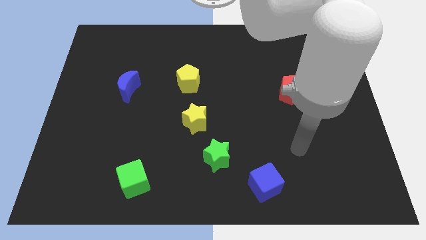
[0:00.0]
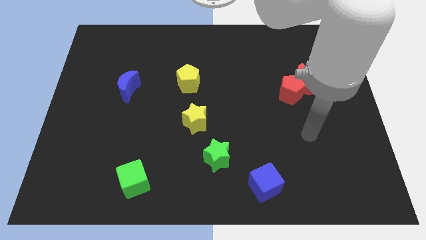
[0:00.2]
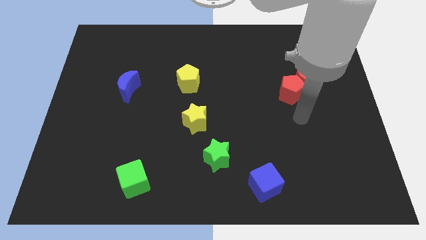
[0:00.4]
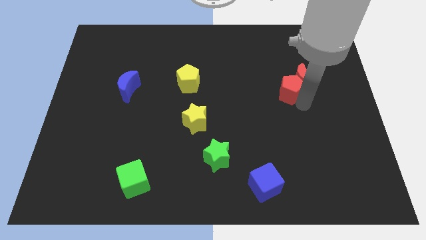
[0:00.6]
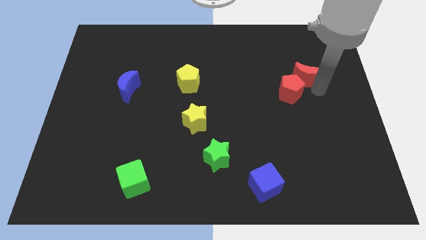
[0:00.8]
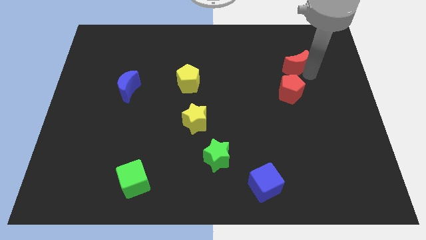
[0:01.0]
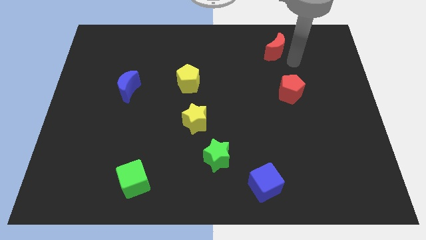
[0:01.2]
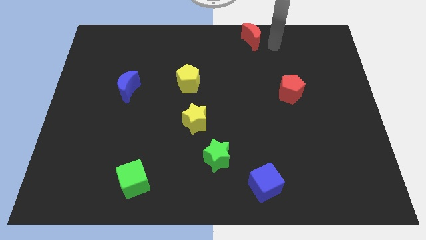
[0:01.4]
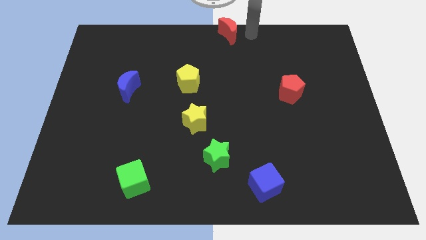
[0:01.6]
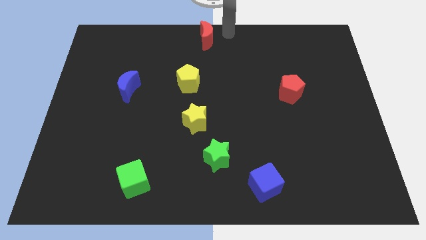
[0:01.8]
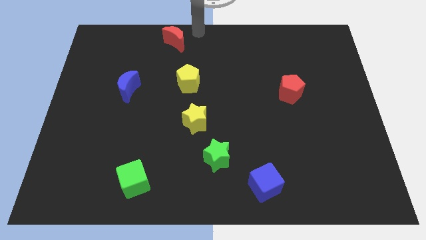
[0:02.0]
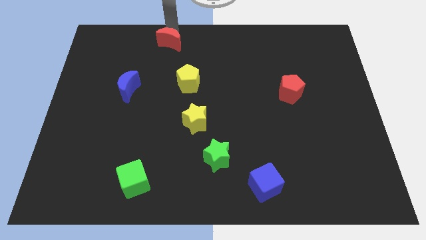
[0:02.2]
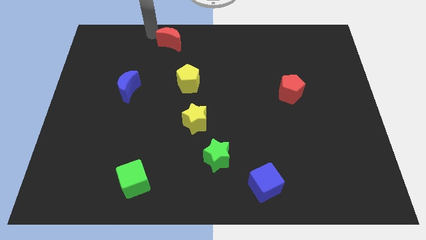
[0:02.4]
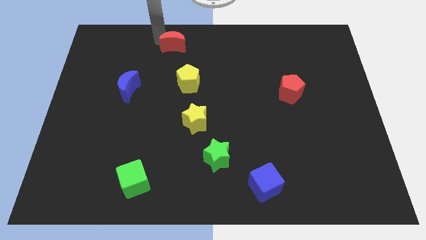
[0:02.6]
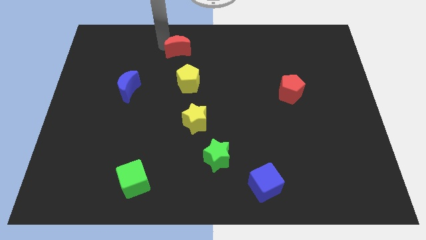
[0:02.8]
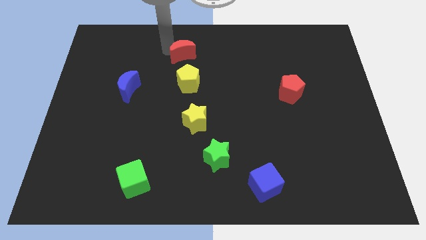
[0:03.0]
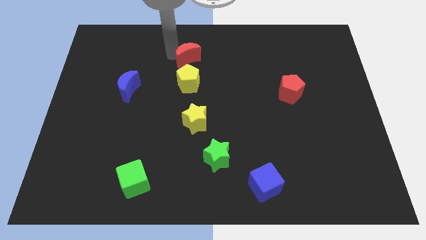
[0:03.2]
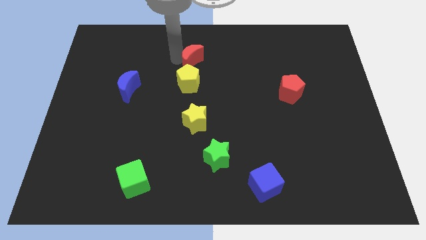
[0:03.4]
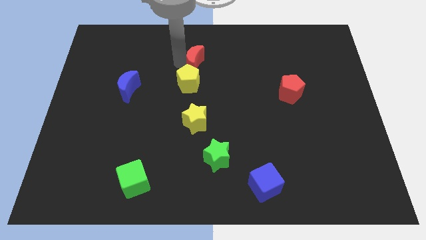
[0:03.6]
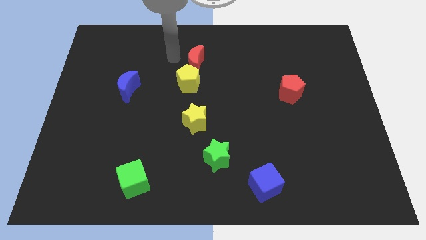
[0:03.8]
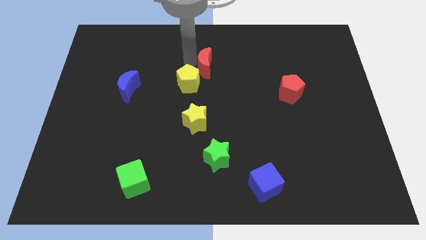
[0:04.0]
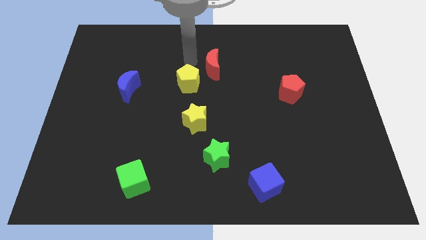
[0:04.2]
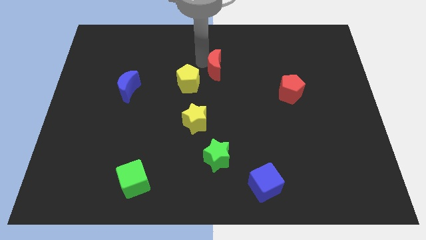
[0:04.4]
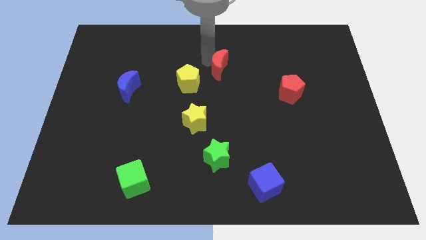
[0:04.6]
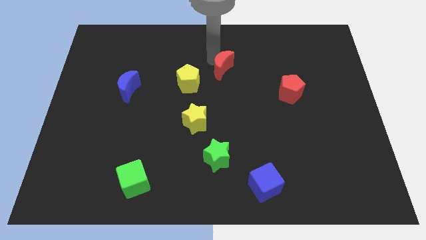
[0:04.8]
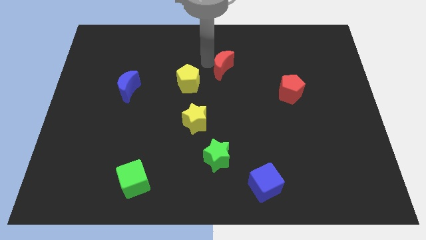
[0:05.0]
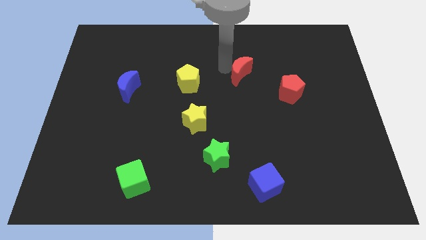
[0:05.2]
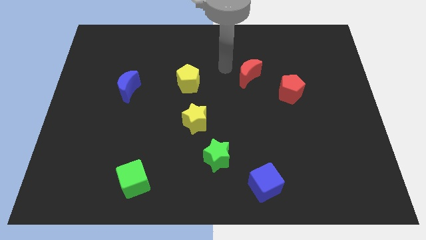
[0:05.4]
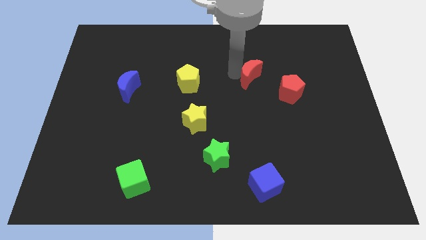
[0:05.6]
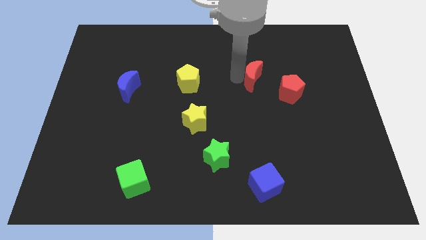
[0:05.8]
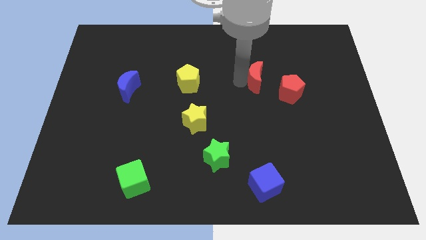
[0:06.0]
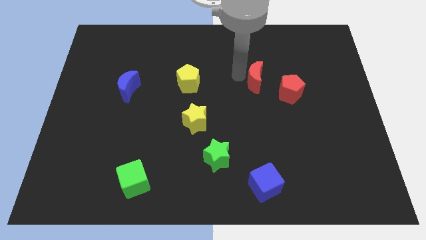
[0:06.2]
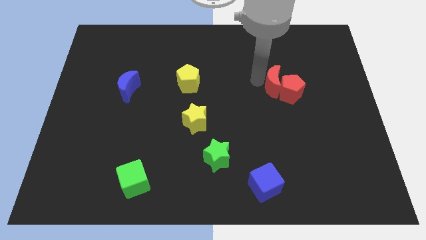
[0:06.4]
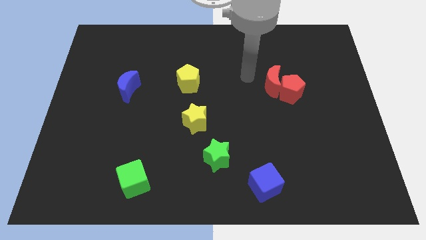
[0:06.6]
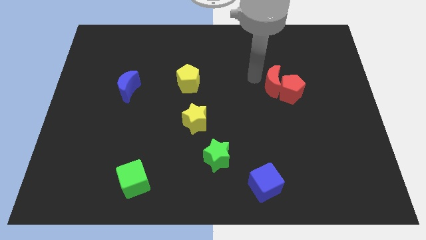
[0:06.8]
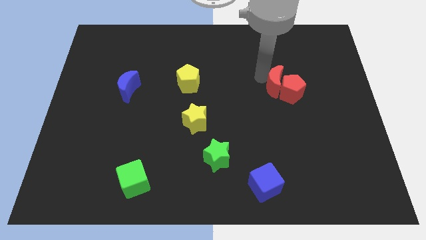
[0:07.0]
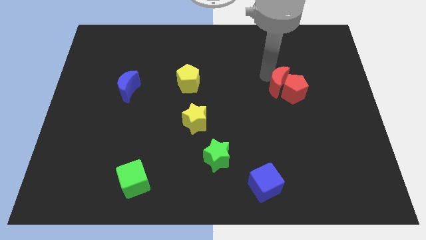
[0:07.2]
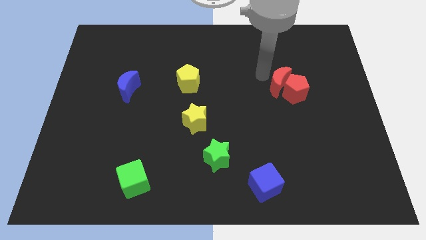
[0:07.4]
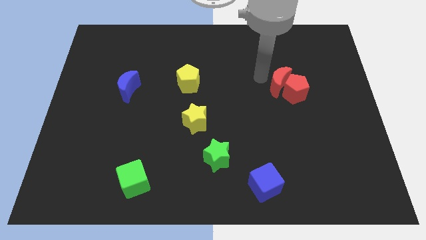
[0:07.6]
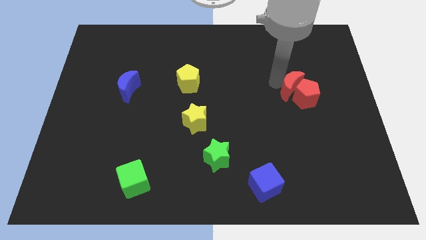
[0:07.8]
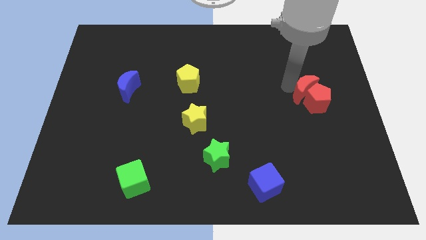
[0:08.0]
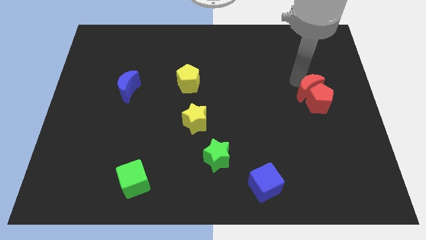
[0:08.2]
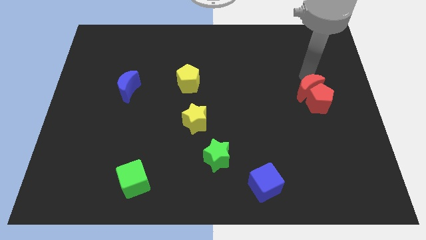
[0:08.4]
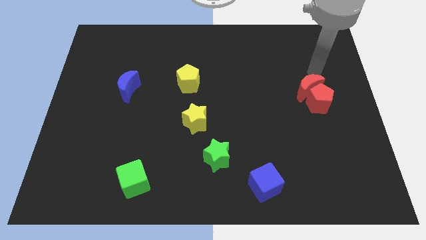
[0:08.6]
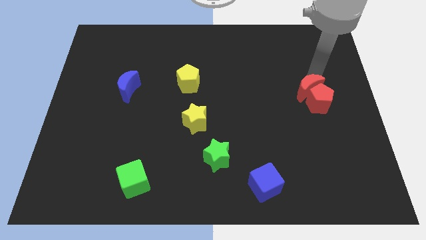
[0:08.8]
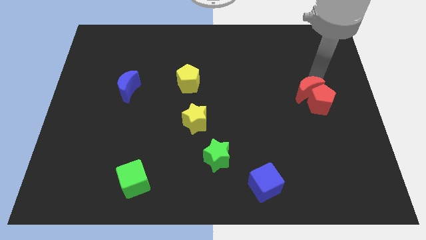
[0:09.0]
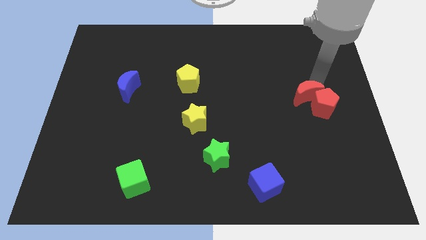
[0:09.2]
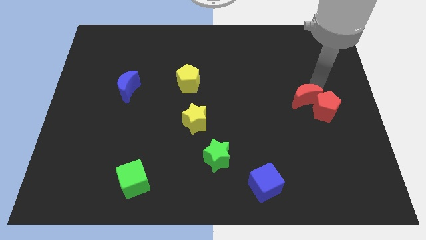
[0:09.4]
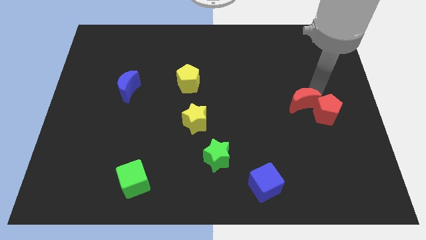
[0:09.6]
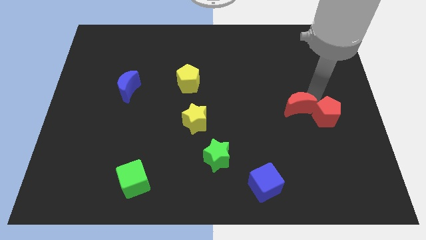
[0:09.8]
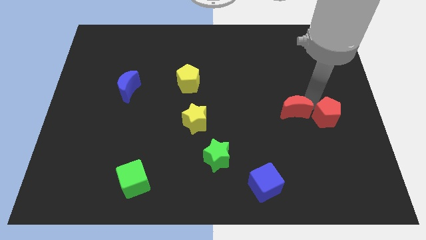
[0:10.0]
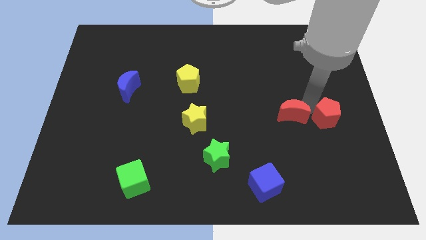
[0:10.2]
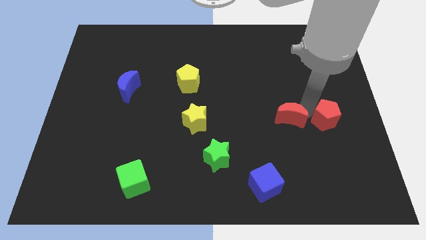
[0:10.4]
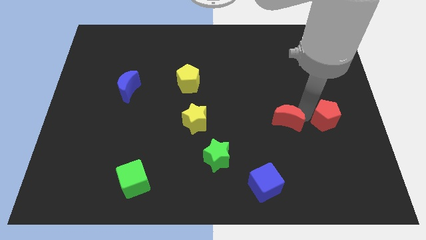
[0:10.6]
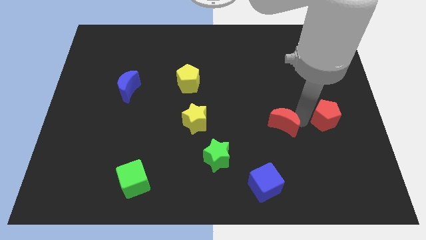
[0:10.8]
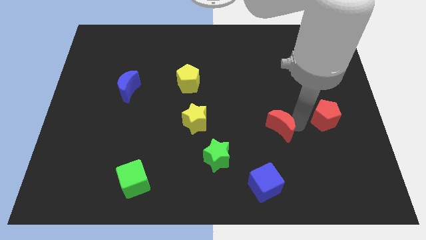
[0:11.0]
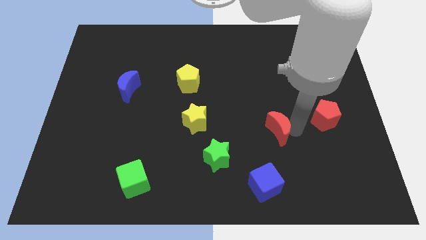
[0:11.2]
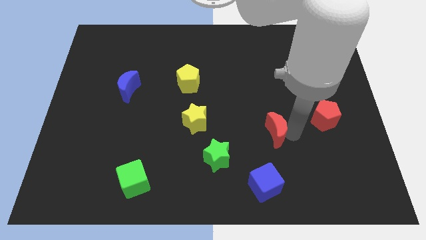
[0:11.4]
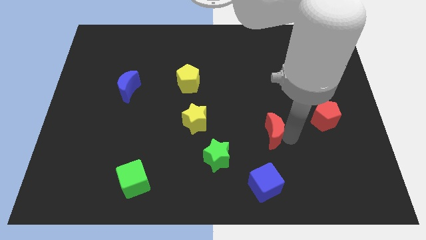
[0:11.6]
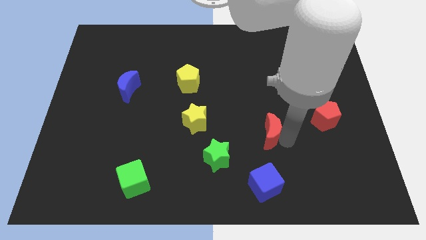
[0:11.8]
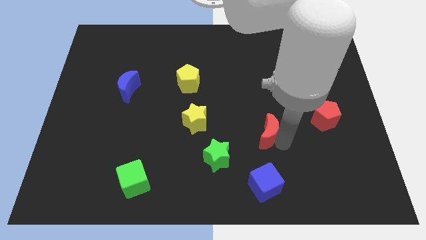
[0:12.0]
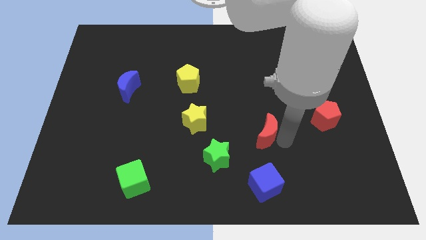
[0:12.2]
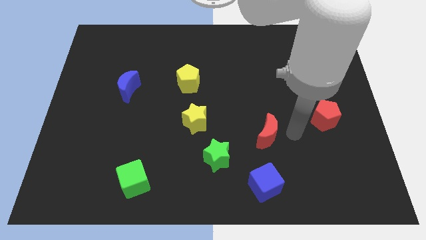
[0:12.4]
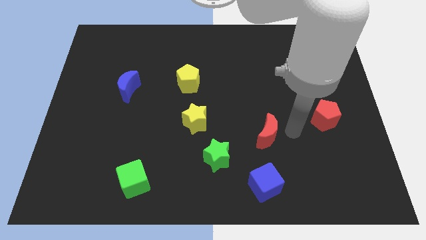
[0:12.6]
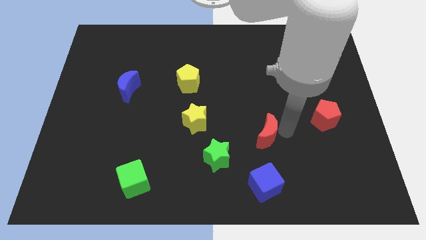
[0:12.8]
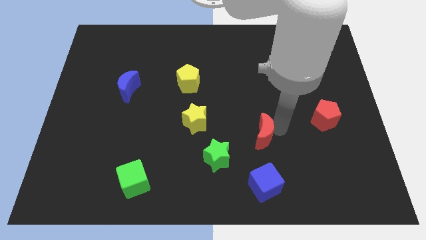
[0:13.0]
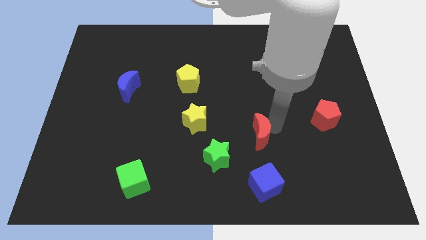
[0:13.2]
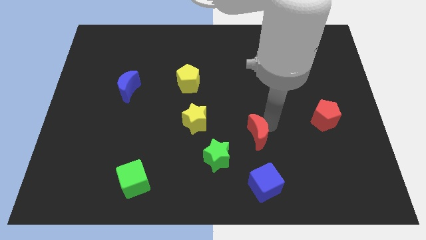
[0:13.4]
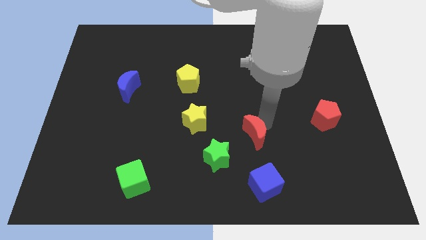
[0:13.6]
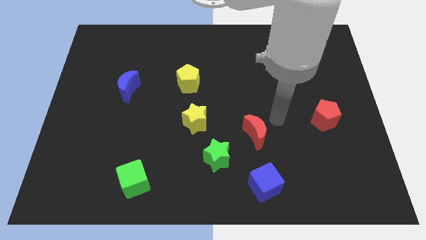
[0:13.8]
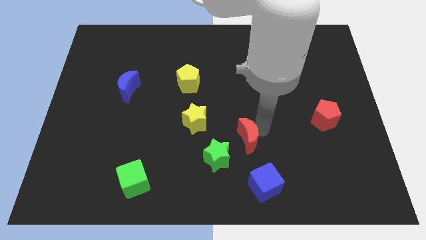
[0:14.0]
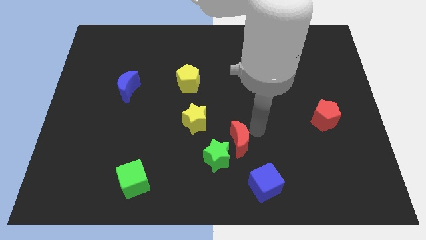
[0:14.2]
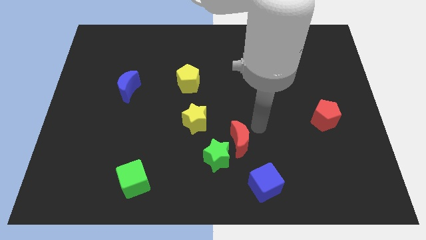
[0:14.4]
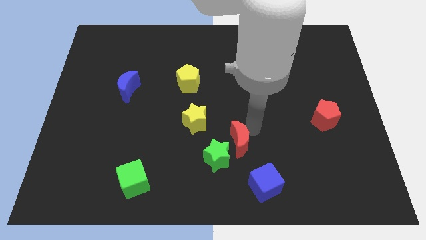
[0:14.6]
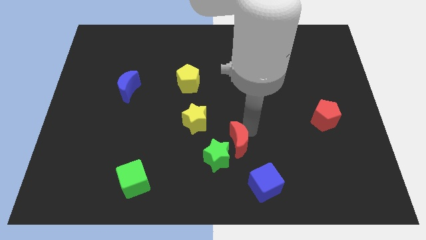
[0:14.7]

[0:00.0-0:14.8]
slide the red moon close to the green star
